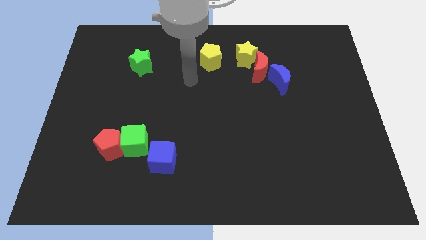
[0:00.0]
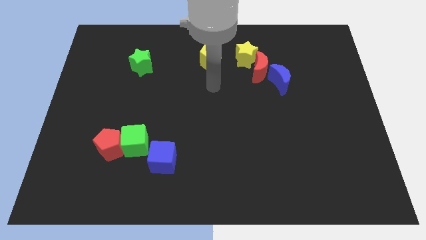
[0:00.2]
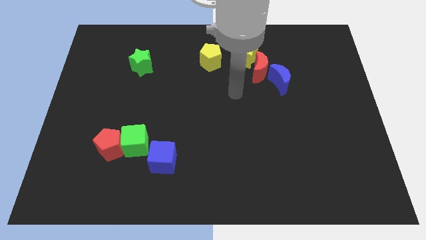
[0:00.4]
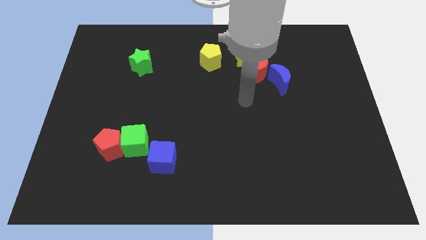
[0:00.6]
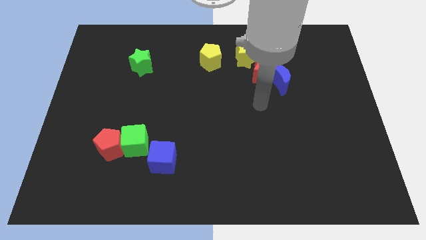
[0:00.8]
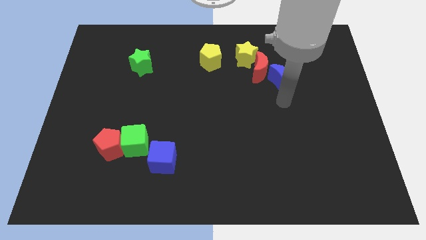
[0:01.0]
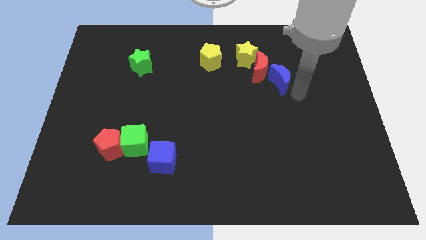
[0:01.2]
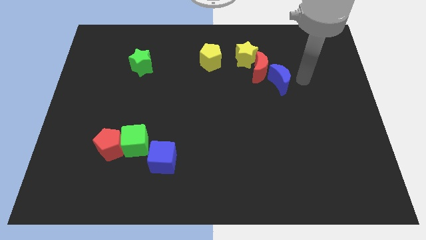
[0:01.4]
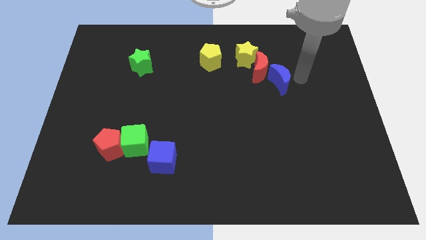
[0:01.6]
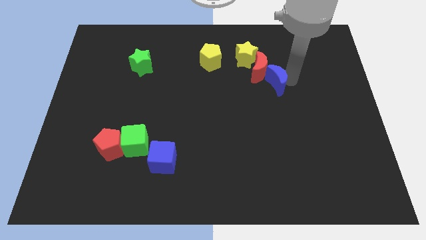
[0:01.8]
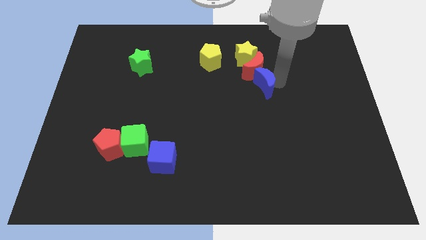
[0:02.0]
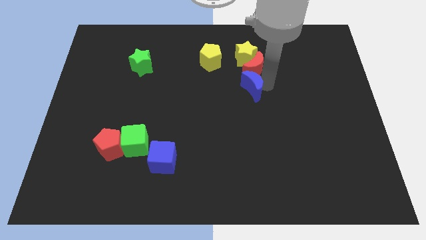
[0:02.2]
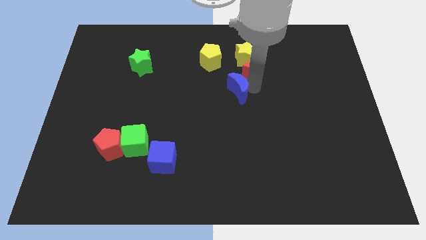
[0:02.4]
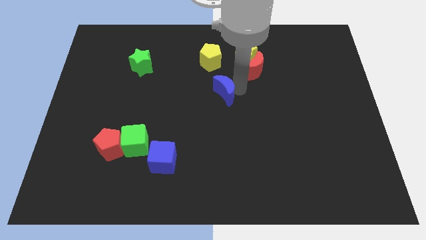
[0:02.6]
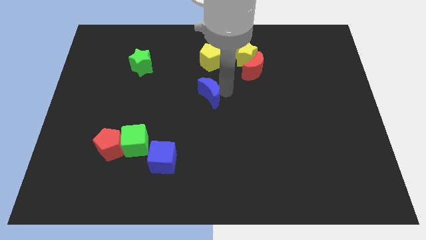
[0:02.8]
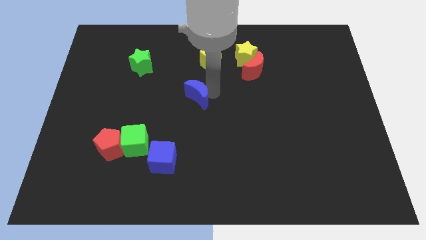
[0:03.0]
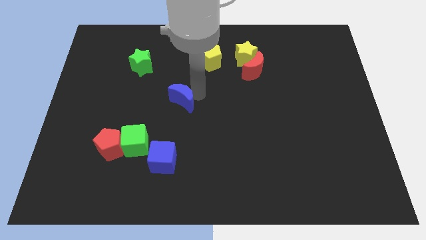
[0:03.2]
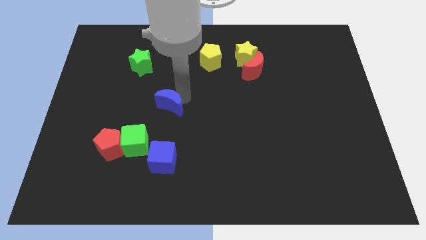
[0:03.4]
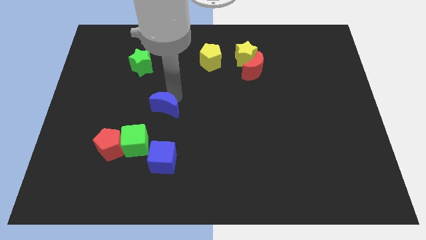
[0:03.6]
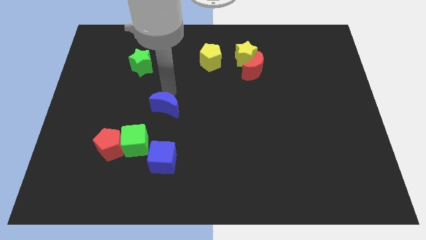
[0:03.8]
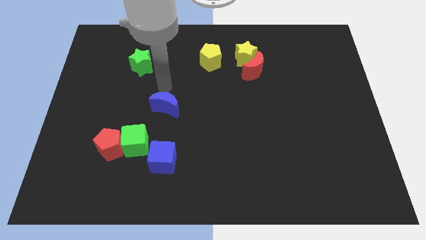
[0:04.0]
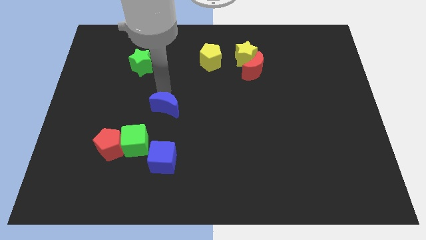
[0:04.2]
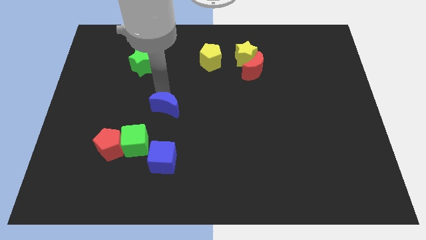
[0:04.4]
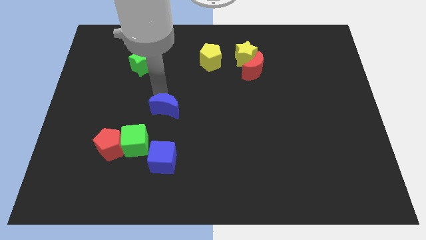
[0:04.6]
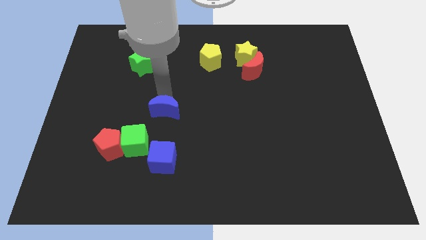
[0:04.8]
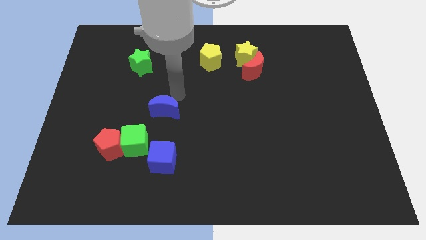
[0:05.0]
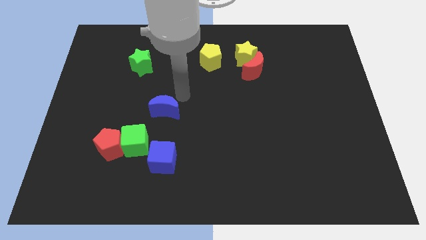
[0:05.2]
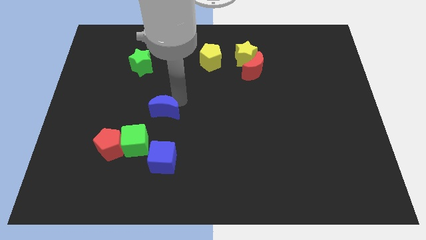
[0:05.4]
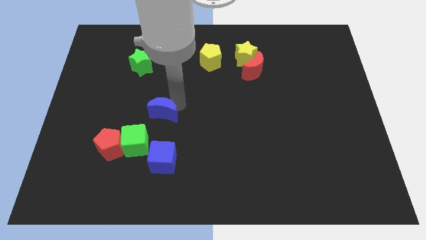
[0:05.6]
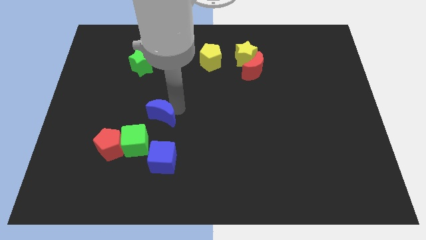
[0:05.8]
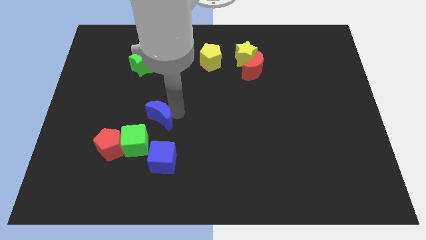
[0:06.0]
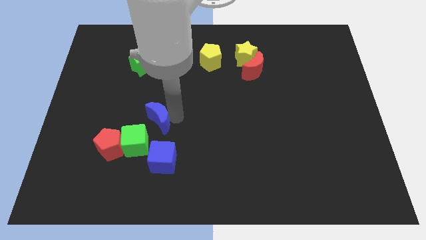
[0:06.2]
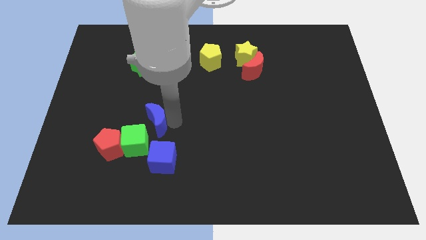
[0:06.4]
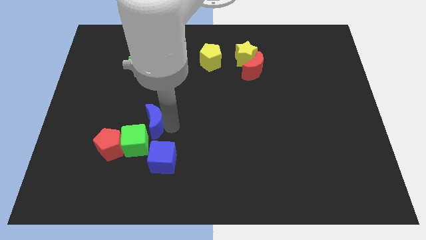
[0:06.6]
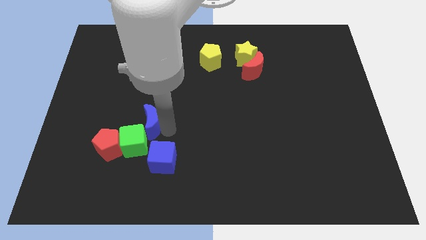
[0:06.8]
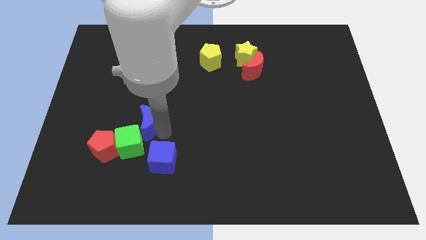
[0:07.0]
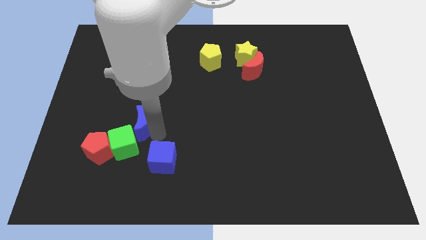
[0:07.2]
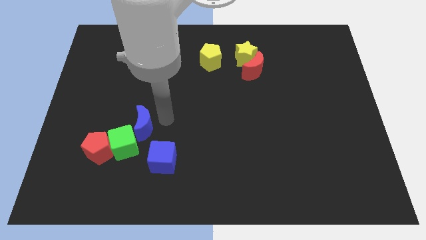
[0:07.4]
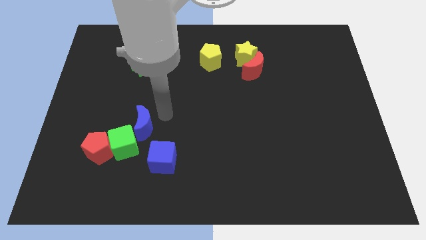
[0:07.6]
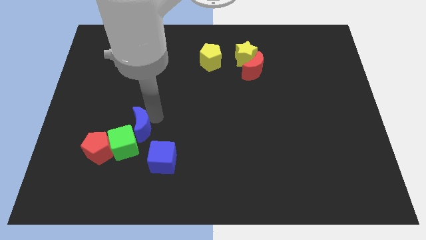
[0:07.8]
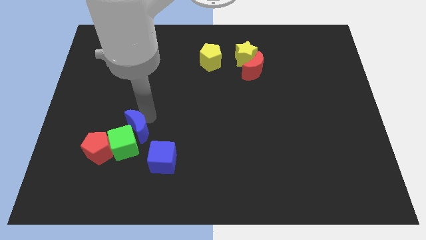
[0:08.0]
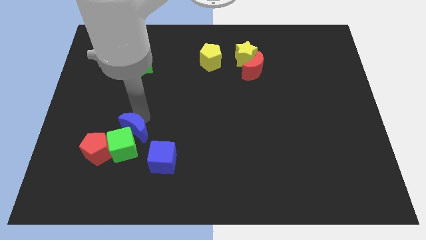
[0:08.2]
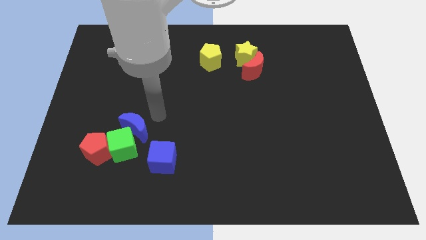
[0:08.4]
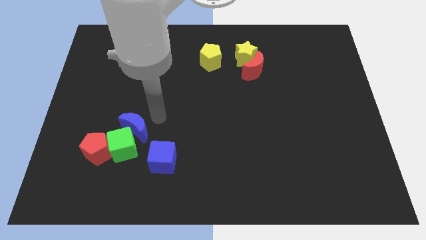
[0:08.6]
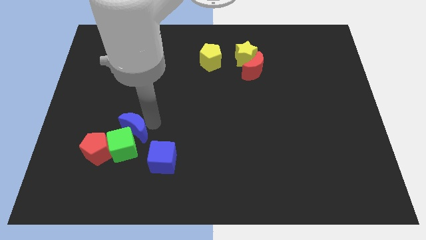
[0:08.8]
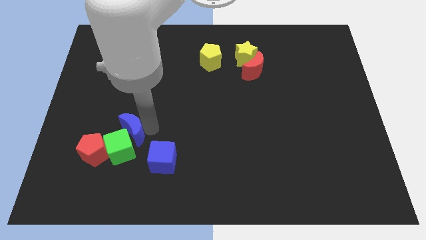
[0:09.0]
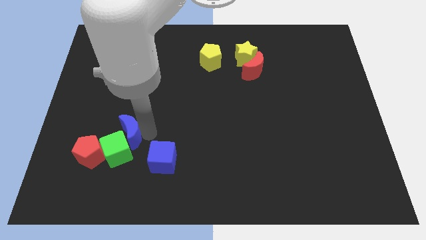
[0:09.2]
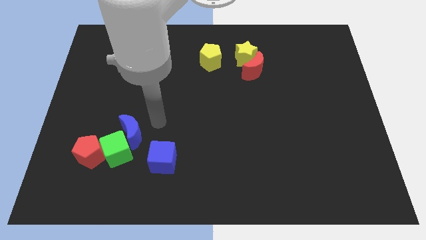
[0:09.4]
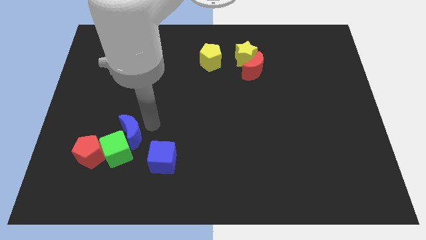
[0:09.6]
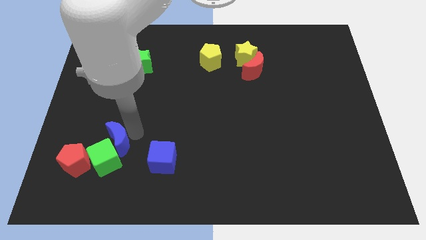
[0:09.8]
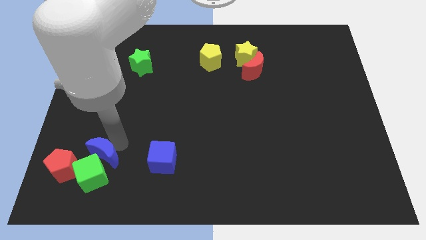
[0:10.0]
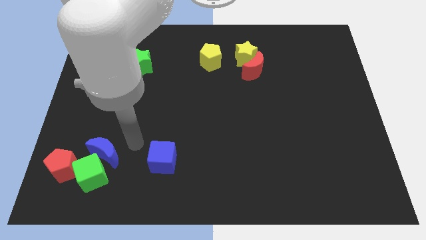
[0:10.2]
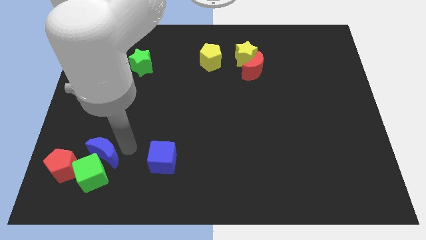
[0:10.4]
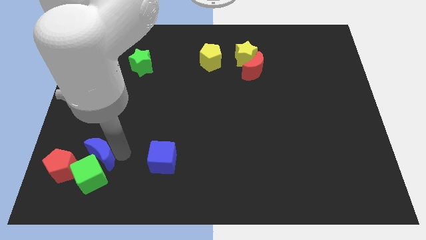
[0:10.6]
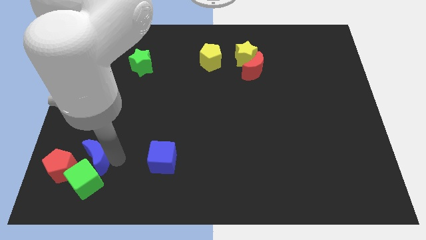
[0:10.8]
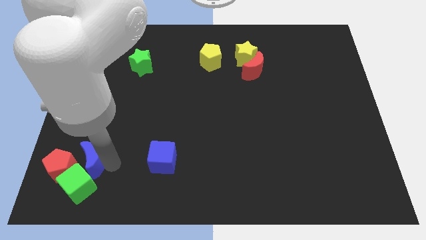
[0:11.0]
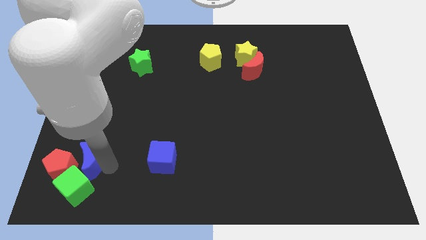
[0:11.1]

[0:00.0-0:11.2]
move the blue moon to the red pentagon

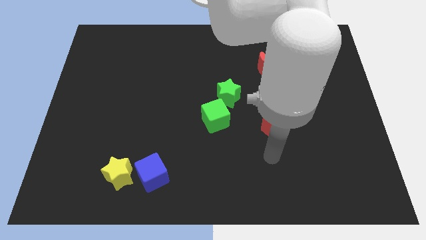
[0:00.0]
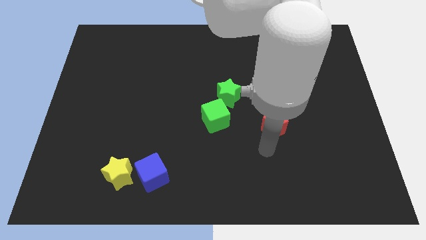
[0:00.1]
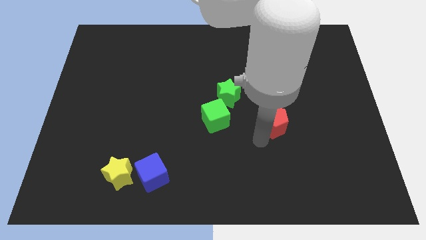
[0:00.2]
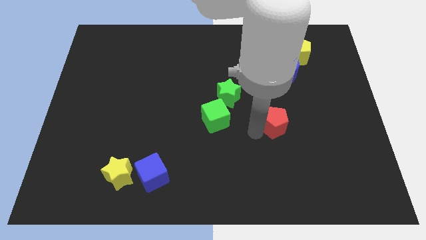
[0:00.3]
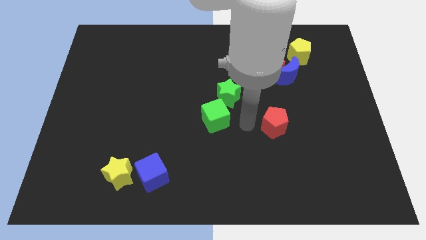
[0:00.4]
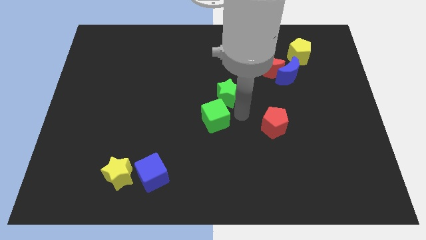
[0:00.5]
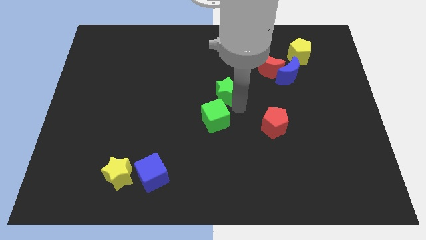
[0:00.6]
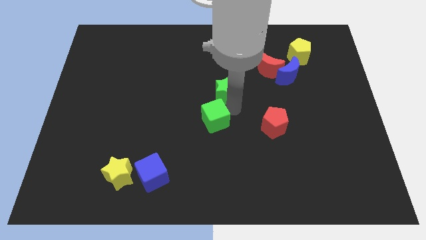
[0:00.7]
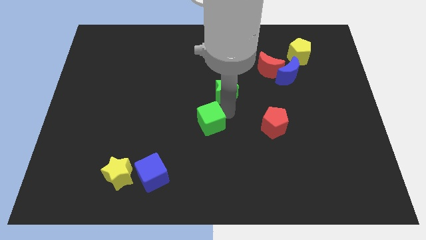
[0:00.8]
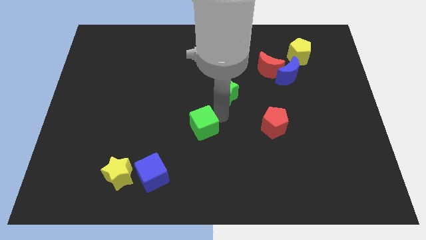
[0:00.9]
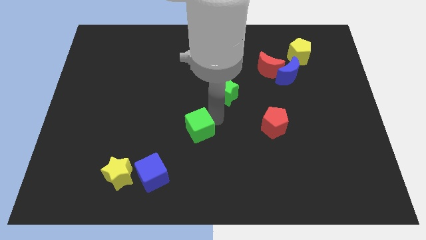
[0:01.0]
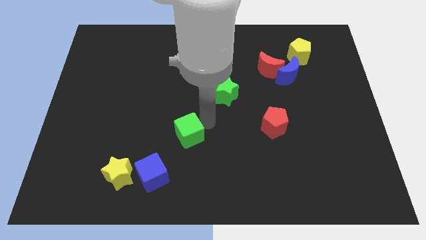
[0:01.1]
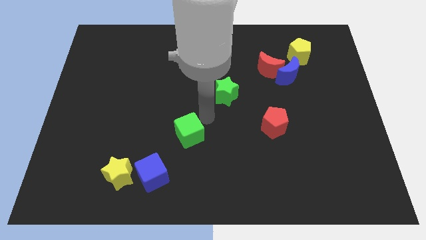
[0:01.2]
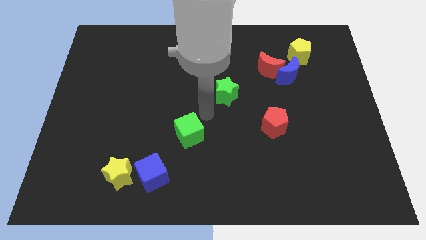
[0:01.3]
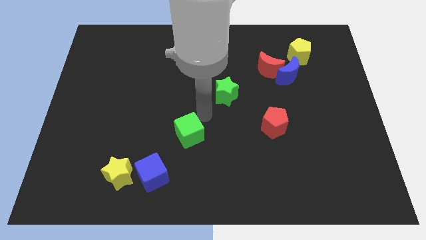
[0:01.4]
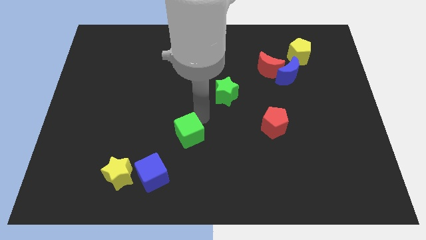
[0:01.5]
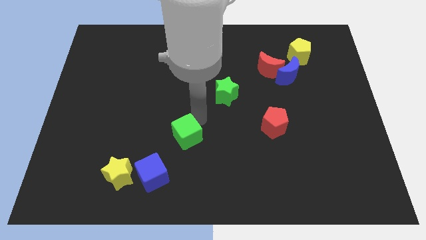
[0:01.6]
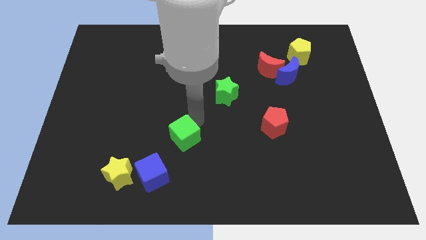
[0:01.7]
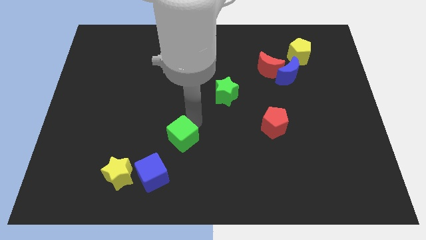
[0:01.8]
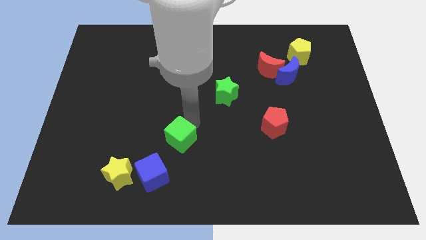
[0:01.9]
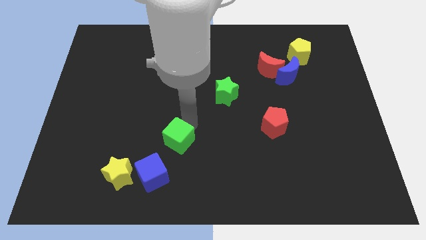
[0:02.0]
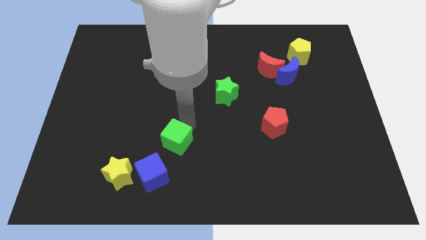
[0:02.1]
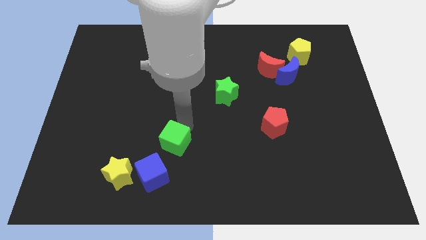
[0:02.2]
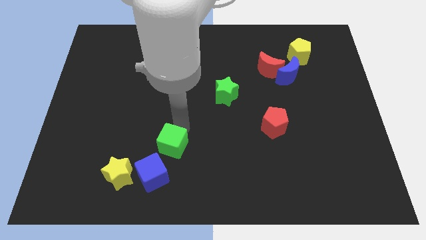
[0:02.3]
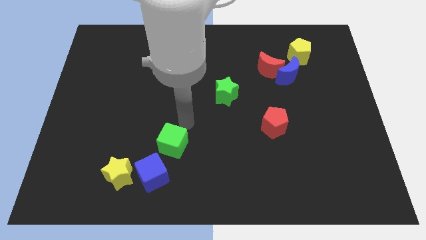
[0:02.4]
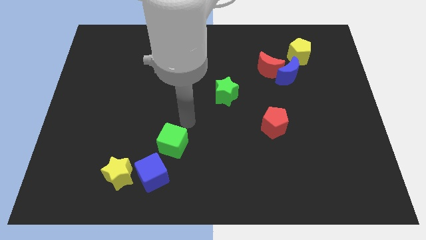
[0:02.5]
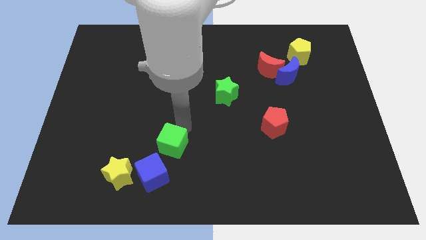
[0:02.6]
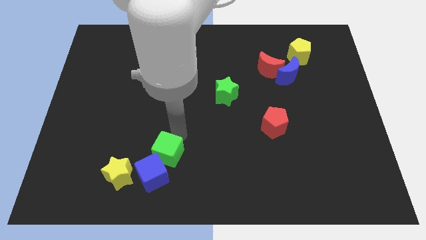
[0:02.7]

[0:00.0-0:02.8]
slide the green cube close to the blue cube
